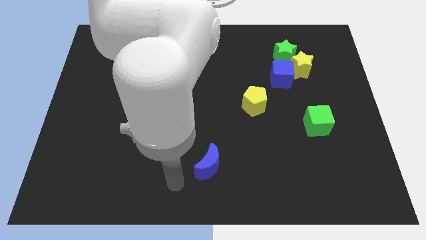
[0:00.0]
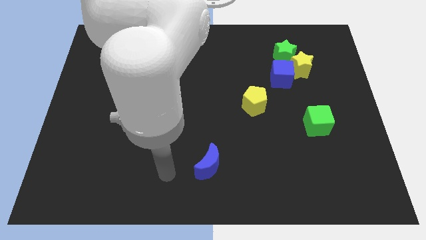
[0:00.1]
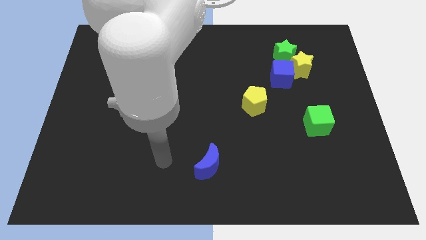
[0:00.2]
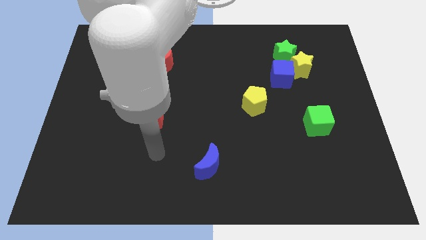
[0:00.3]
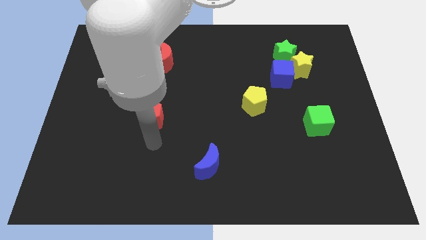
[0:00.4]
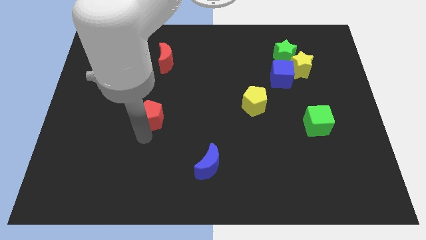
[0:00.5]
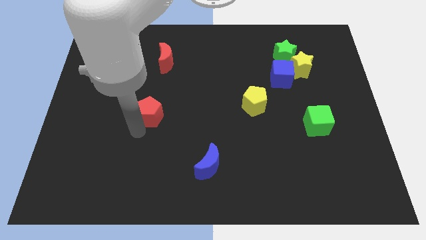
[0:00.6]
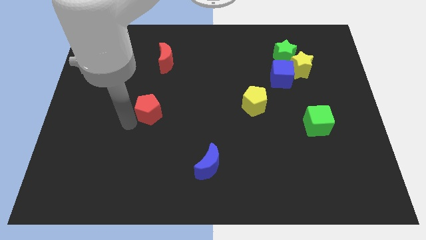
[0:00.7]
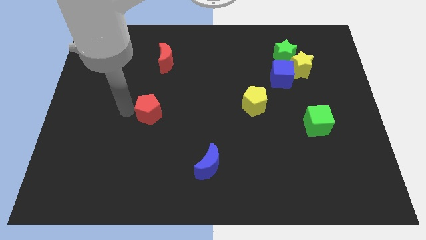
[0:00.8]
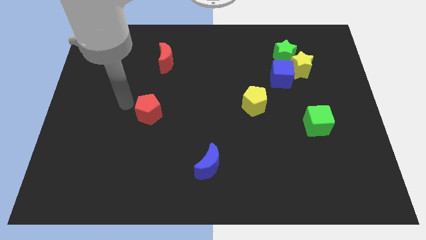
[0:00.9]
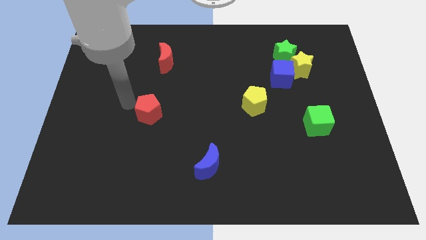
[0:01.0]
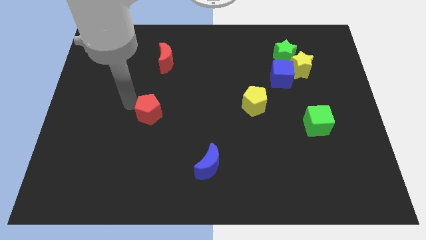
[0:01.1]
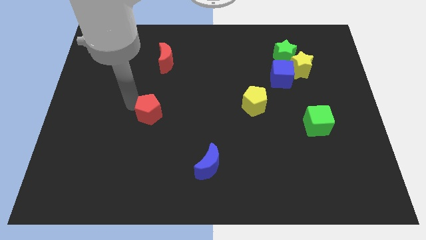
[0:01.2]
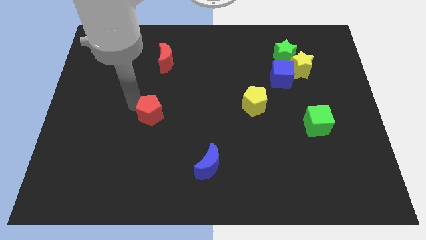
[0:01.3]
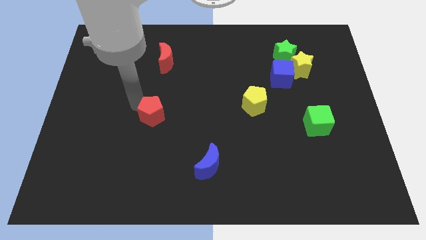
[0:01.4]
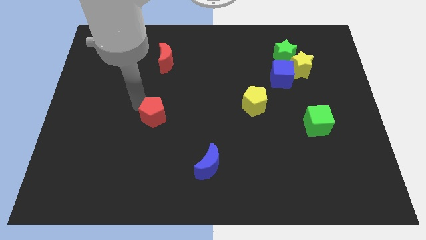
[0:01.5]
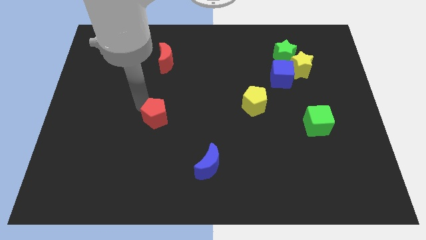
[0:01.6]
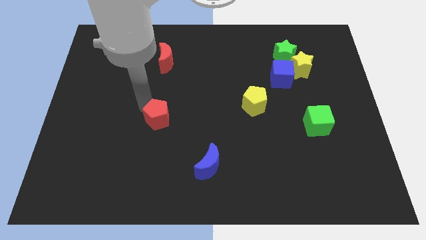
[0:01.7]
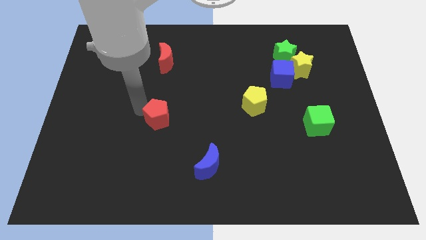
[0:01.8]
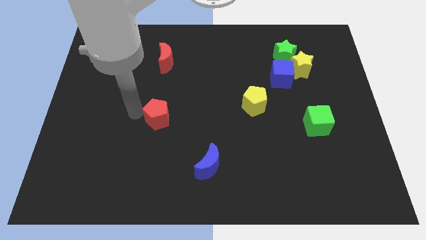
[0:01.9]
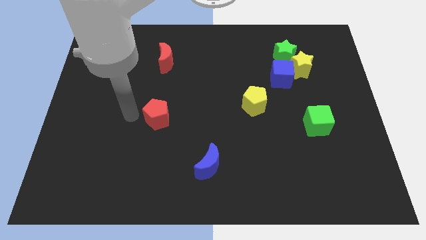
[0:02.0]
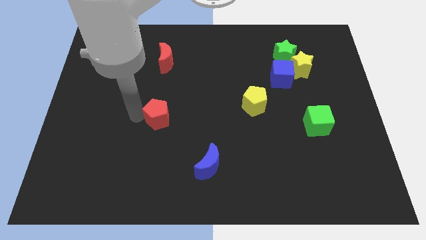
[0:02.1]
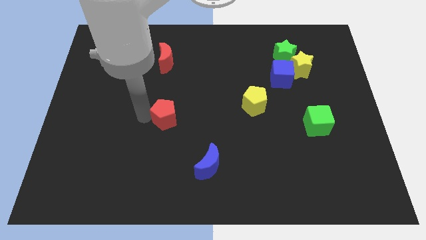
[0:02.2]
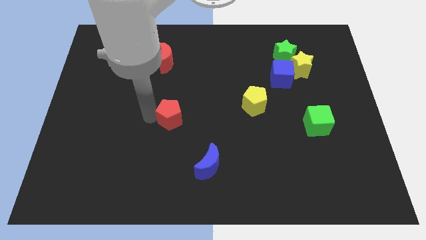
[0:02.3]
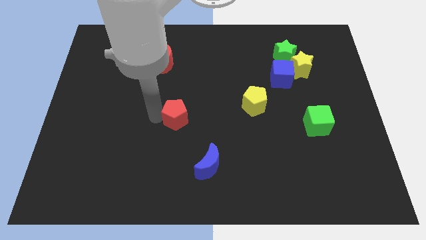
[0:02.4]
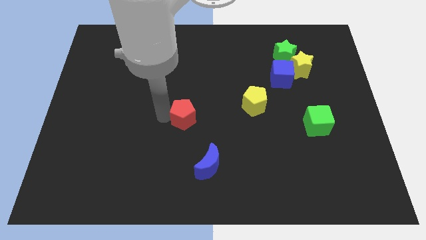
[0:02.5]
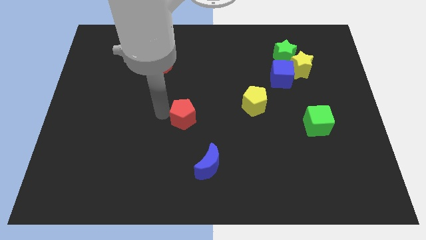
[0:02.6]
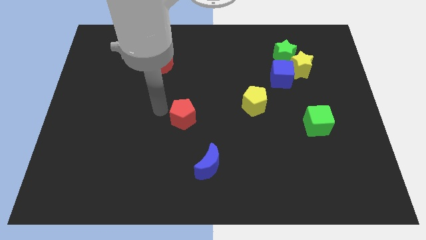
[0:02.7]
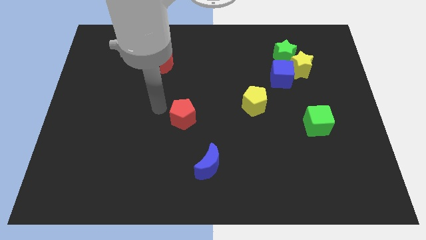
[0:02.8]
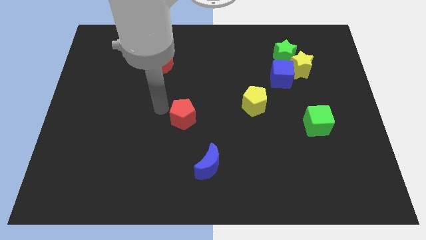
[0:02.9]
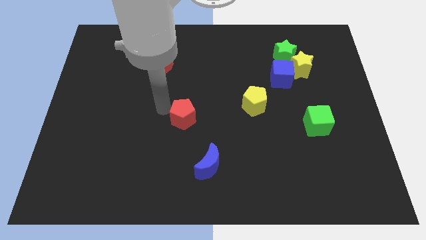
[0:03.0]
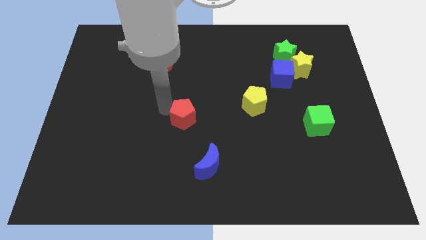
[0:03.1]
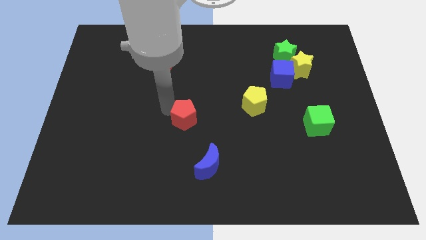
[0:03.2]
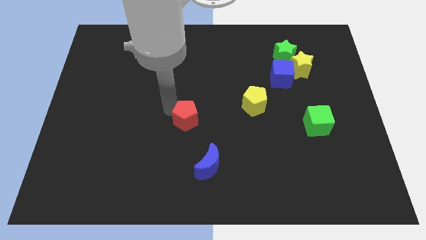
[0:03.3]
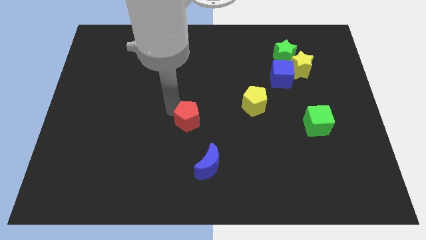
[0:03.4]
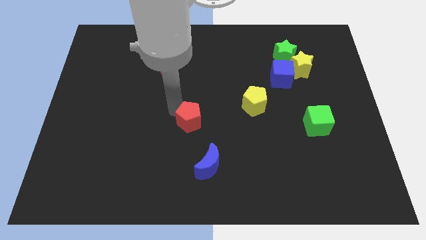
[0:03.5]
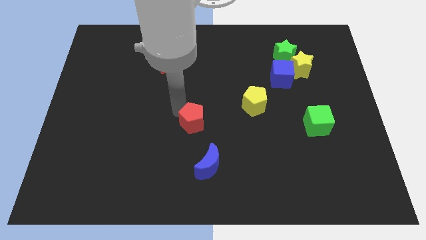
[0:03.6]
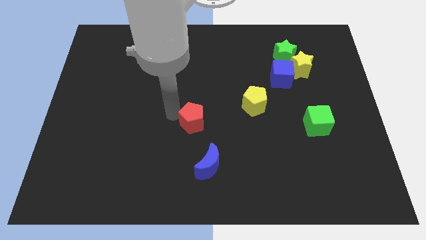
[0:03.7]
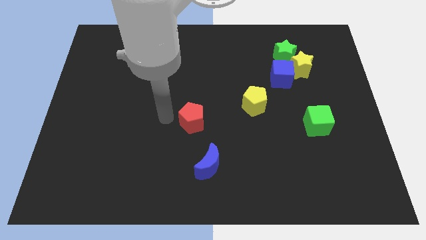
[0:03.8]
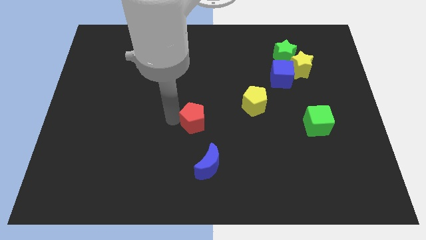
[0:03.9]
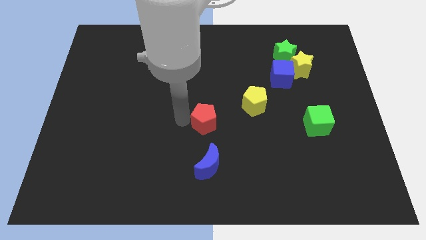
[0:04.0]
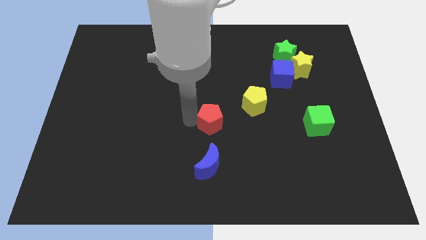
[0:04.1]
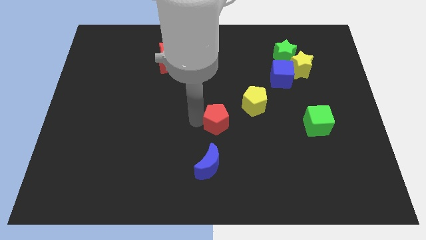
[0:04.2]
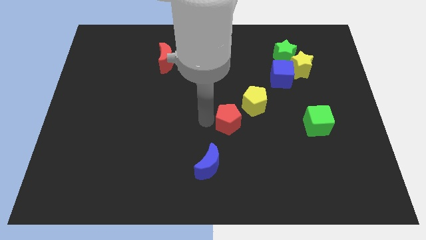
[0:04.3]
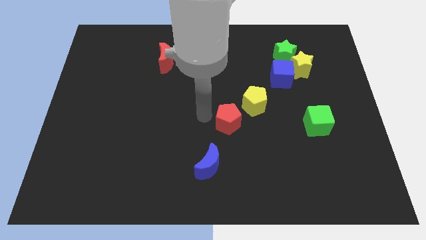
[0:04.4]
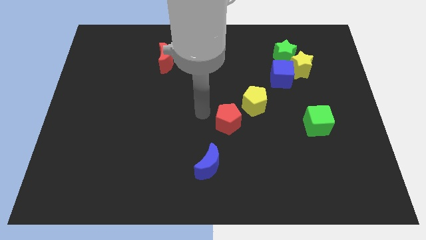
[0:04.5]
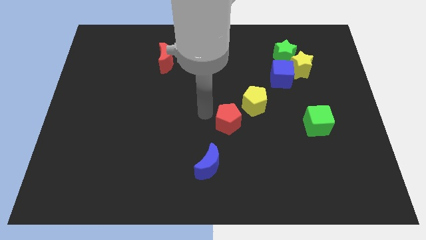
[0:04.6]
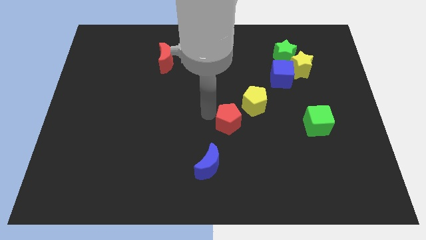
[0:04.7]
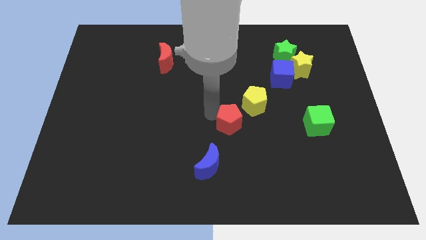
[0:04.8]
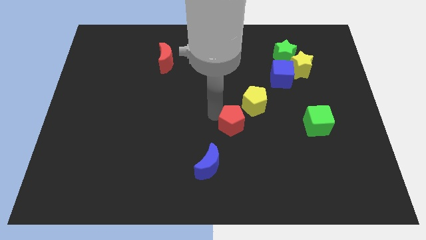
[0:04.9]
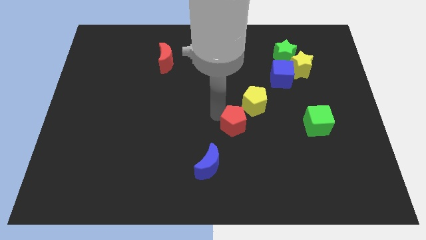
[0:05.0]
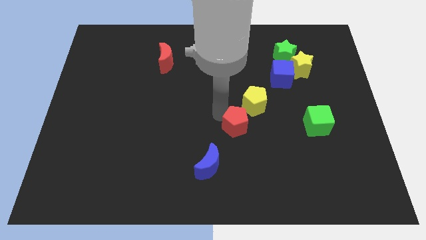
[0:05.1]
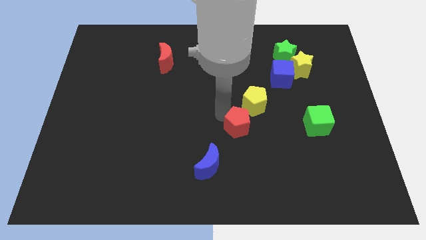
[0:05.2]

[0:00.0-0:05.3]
move the red pentagon to the right

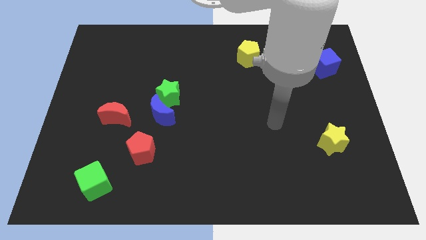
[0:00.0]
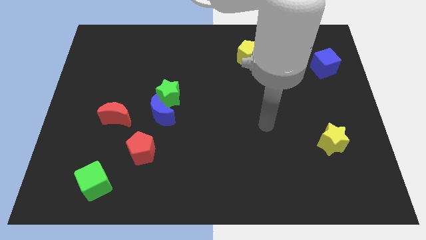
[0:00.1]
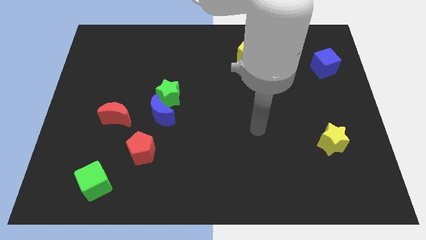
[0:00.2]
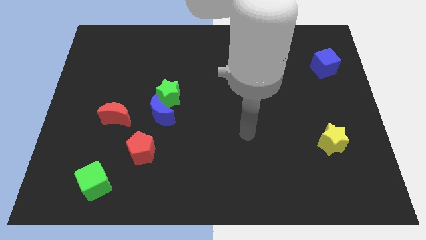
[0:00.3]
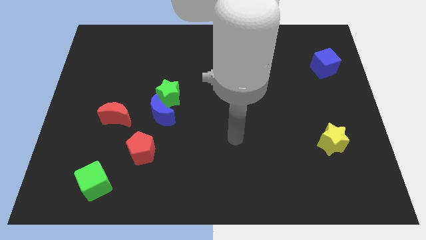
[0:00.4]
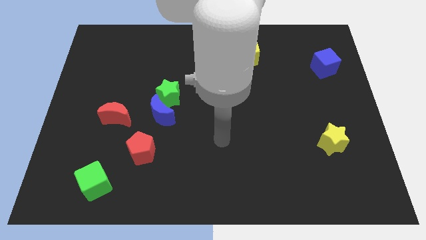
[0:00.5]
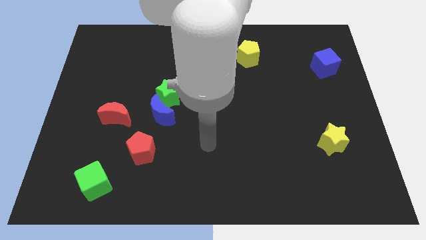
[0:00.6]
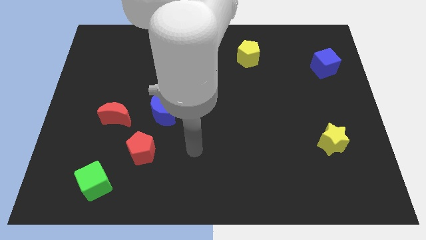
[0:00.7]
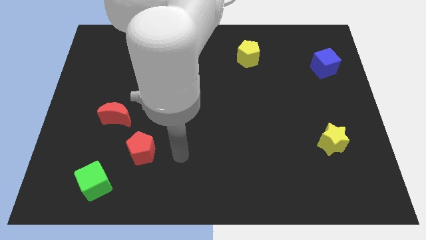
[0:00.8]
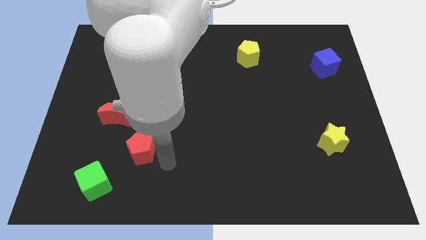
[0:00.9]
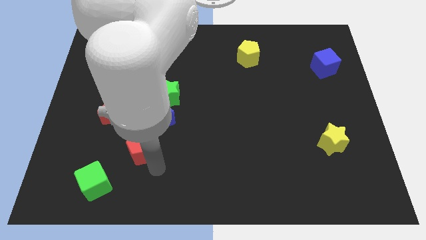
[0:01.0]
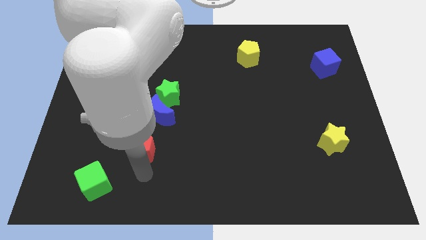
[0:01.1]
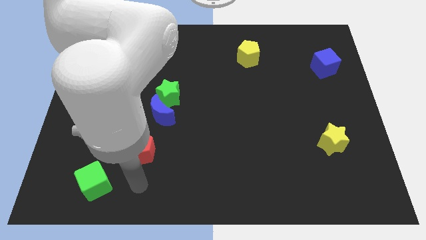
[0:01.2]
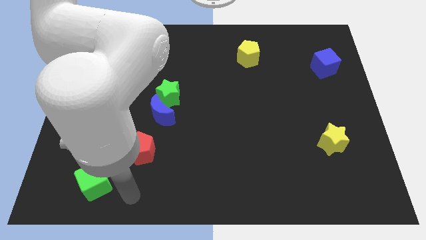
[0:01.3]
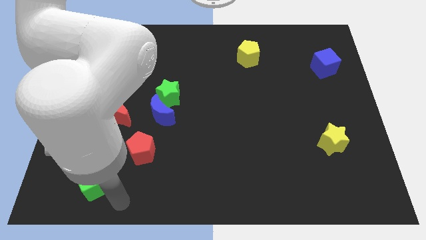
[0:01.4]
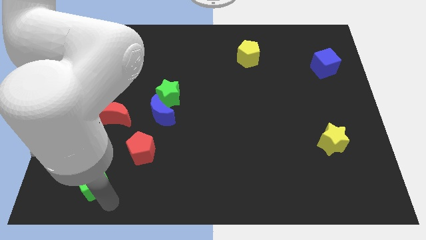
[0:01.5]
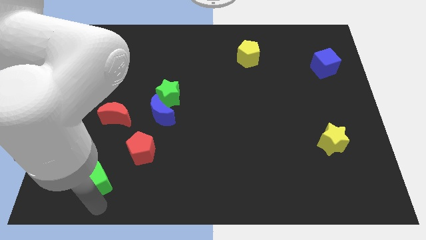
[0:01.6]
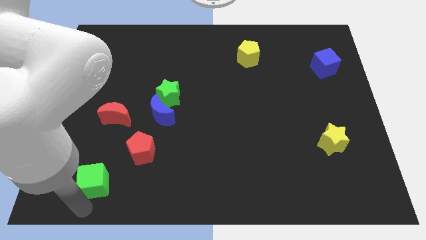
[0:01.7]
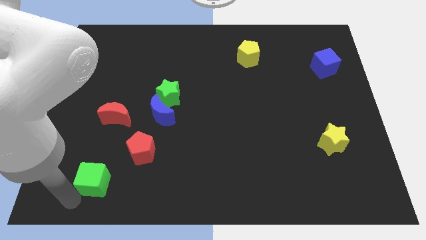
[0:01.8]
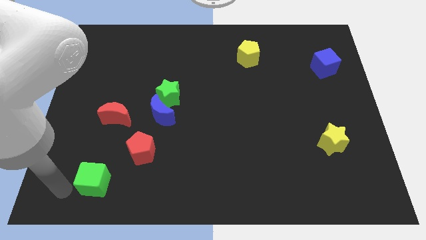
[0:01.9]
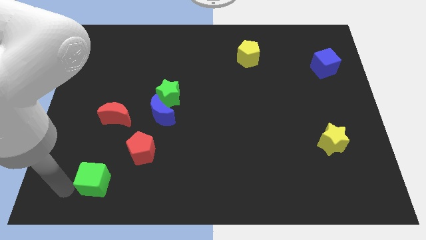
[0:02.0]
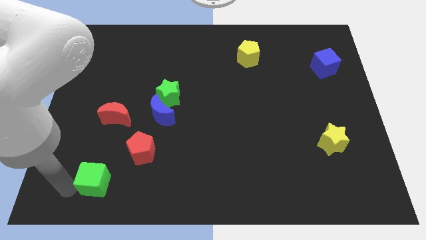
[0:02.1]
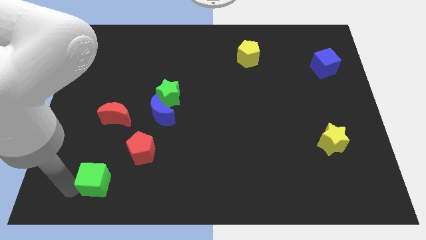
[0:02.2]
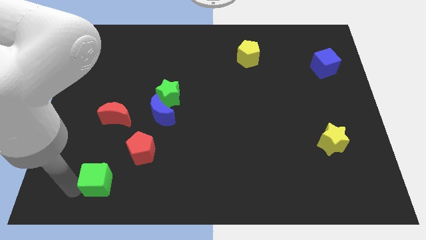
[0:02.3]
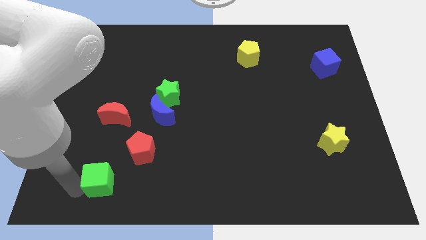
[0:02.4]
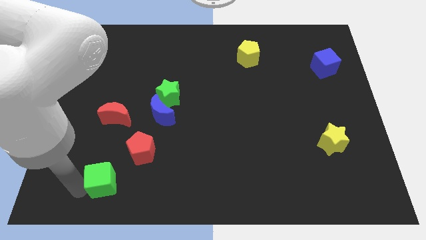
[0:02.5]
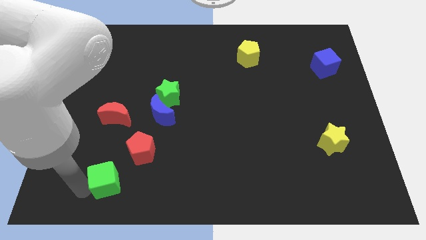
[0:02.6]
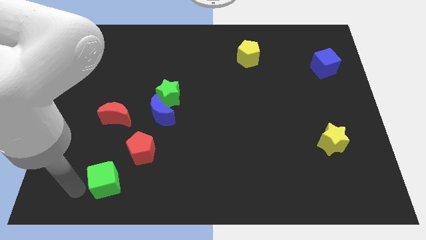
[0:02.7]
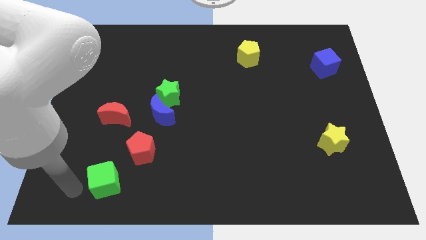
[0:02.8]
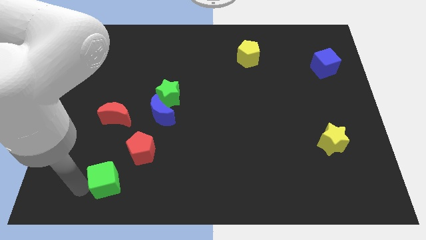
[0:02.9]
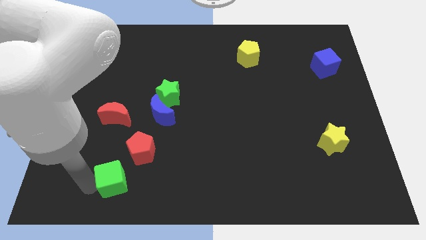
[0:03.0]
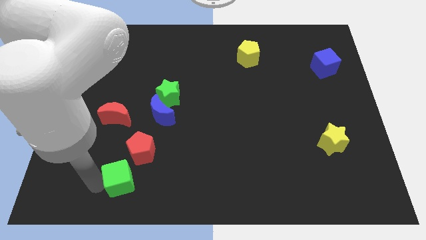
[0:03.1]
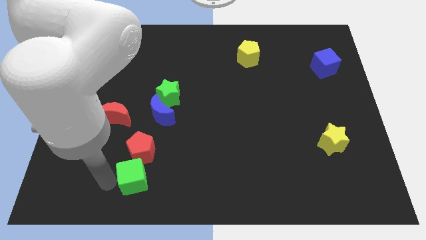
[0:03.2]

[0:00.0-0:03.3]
slightly push the green cube to the right
